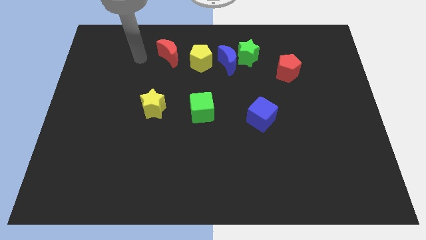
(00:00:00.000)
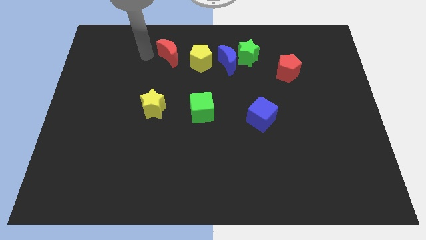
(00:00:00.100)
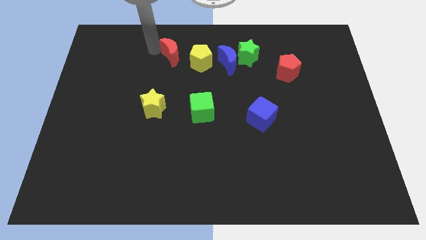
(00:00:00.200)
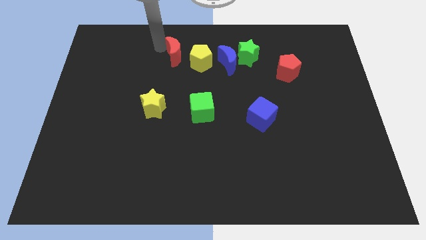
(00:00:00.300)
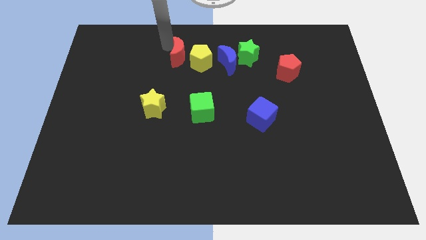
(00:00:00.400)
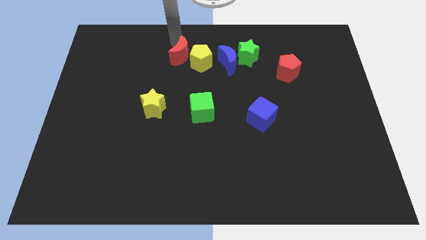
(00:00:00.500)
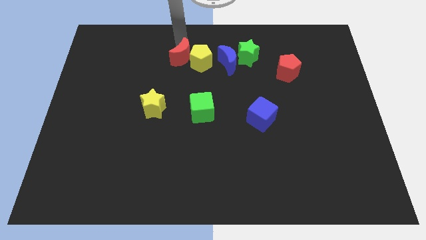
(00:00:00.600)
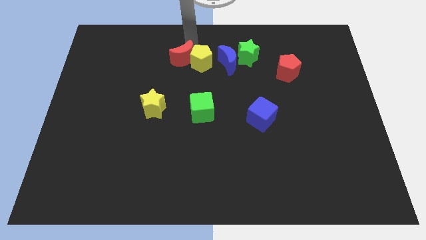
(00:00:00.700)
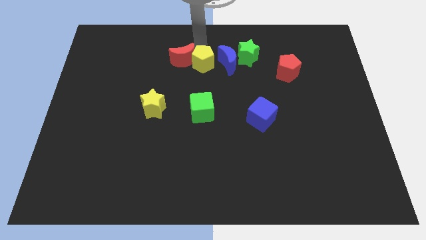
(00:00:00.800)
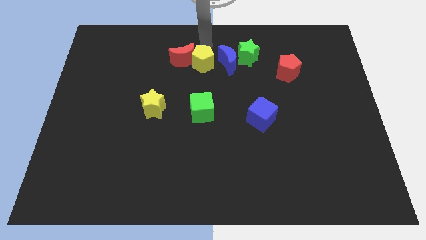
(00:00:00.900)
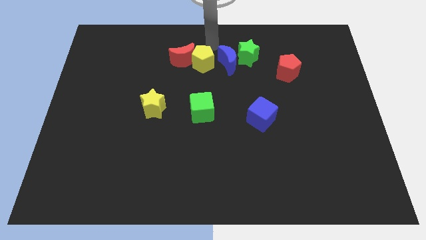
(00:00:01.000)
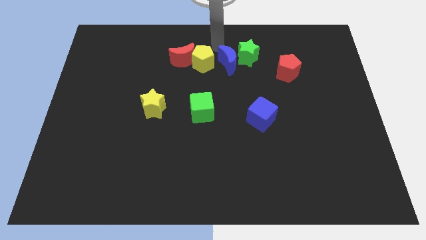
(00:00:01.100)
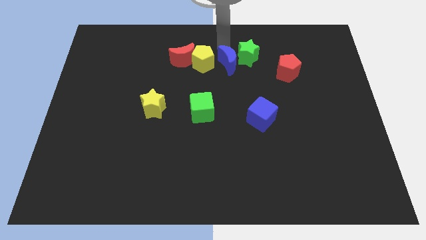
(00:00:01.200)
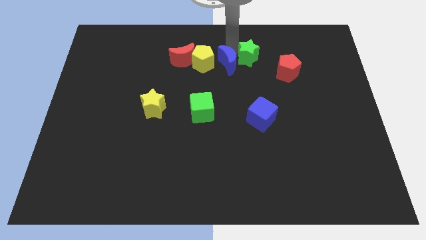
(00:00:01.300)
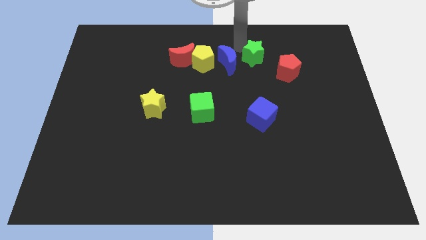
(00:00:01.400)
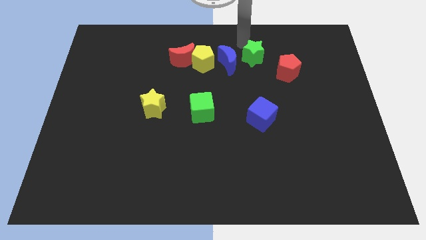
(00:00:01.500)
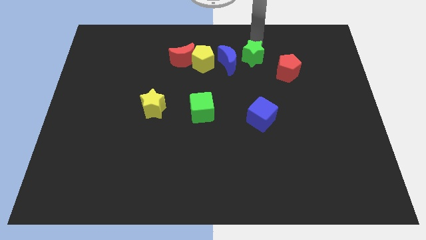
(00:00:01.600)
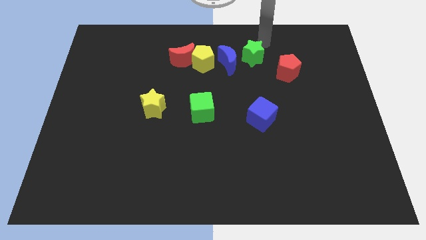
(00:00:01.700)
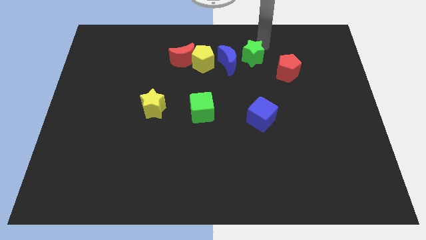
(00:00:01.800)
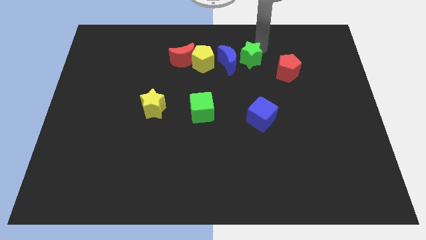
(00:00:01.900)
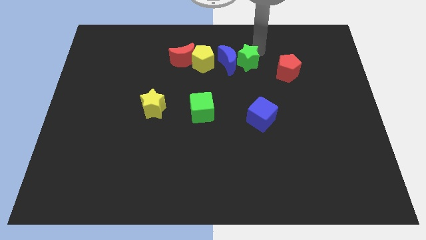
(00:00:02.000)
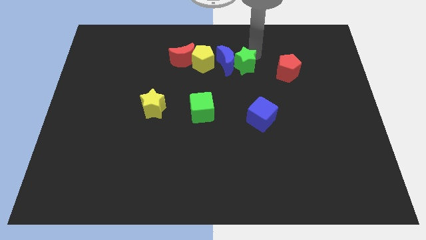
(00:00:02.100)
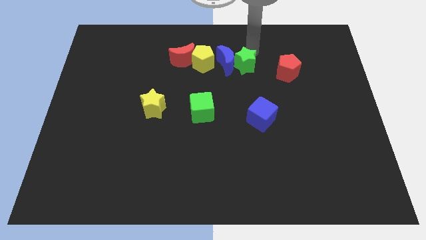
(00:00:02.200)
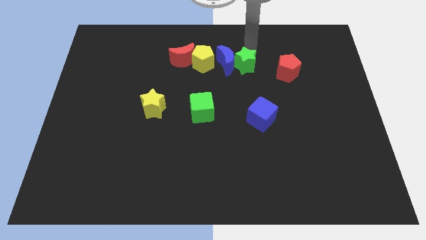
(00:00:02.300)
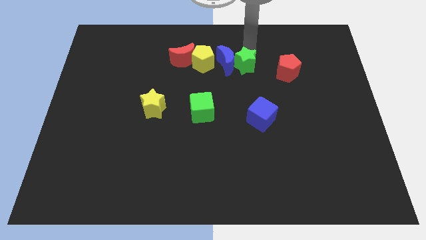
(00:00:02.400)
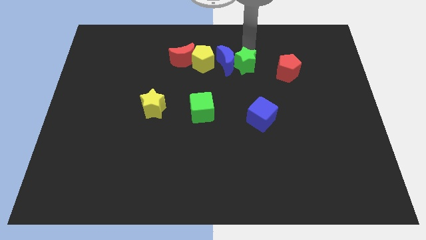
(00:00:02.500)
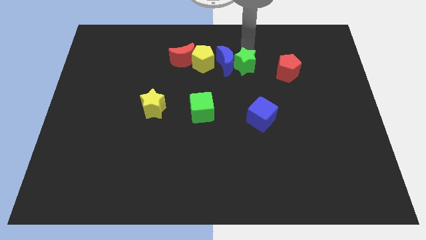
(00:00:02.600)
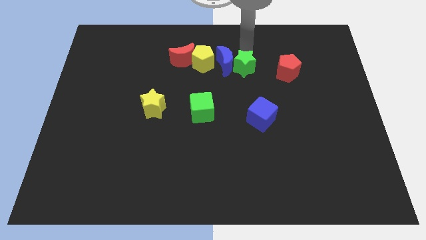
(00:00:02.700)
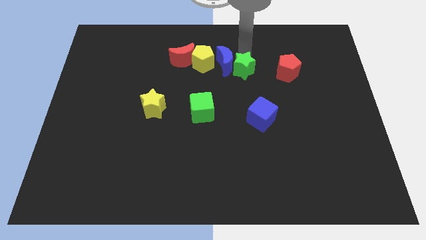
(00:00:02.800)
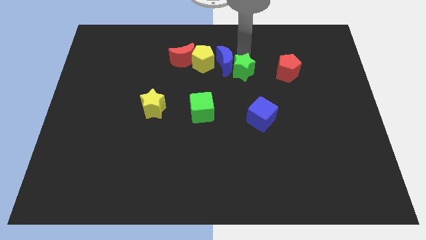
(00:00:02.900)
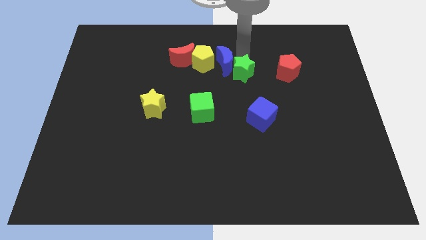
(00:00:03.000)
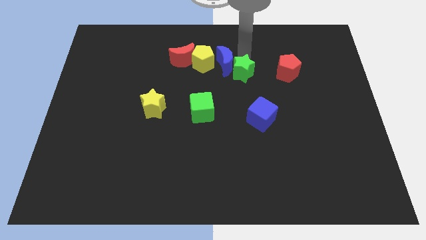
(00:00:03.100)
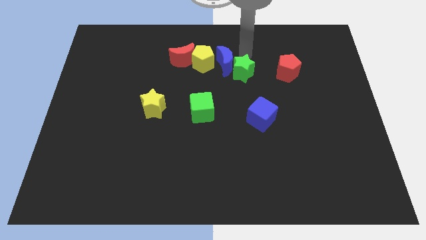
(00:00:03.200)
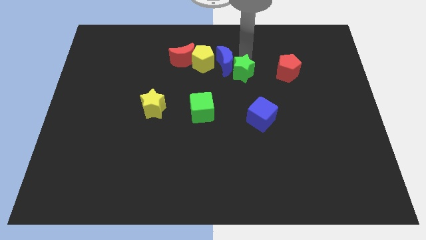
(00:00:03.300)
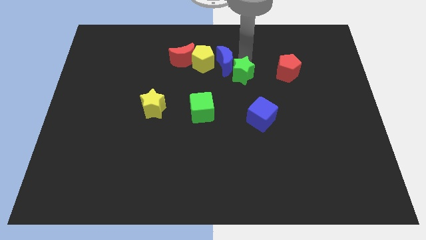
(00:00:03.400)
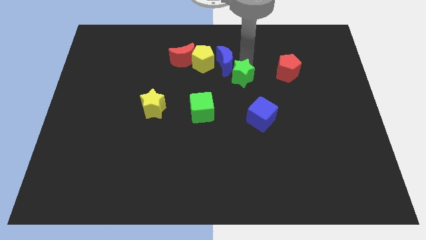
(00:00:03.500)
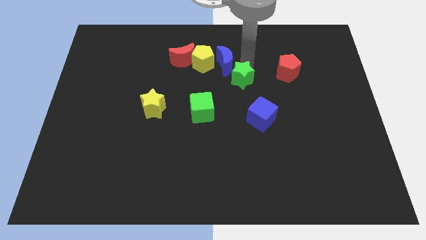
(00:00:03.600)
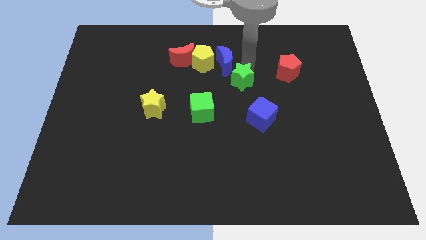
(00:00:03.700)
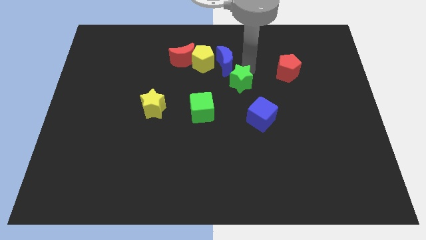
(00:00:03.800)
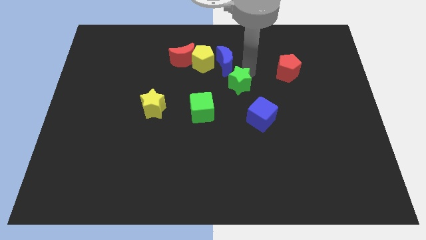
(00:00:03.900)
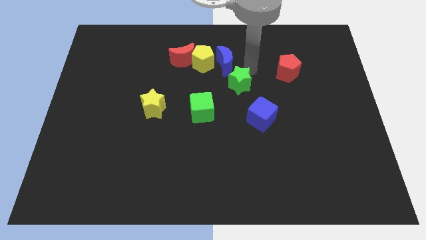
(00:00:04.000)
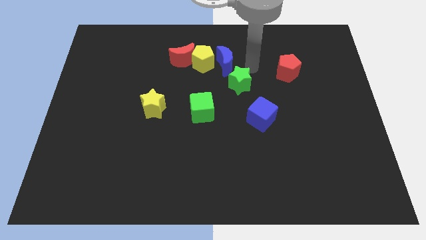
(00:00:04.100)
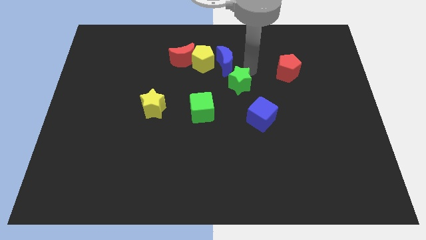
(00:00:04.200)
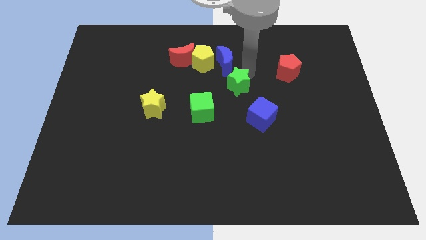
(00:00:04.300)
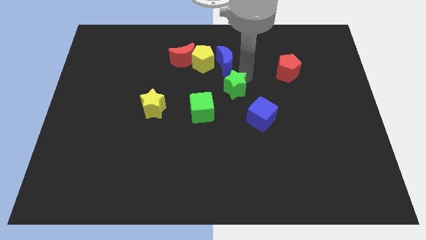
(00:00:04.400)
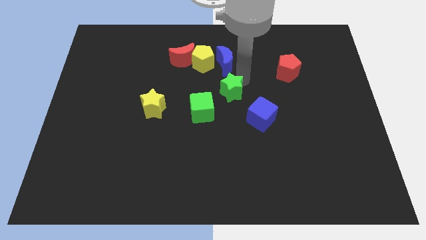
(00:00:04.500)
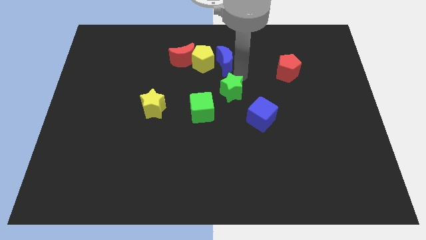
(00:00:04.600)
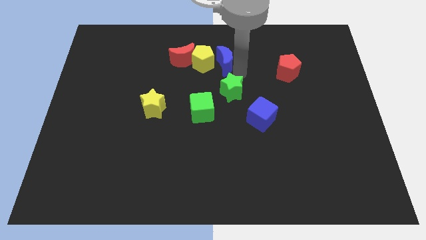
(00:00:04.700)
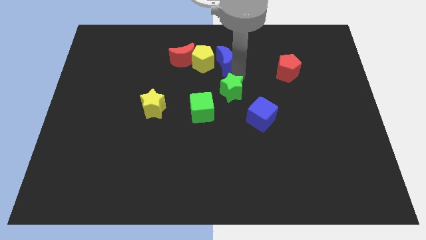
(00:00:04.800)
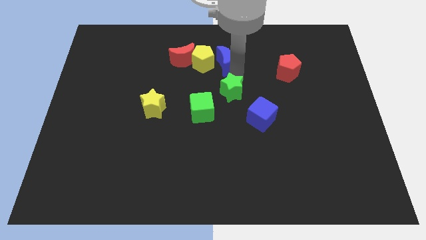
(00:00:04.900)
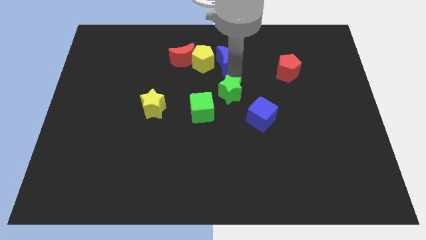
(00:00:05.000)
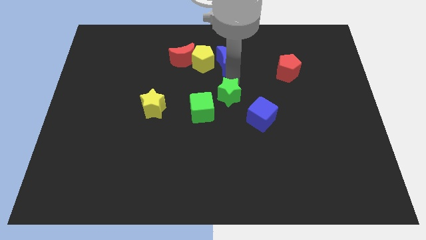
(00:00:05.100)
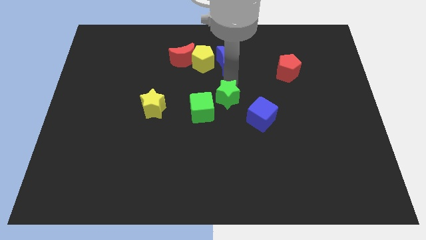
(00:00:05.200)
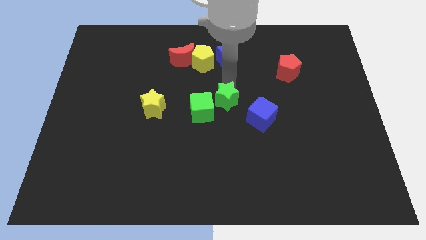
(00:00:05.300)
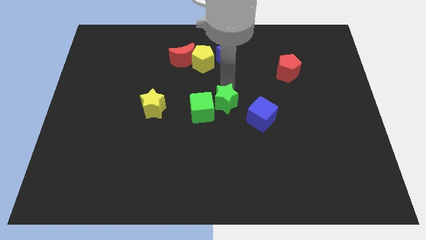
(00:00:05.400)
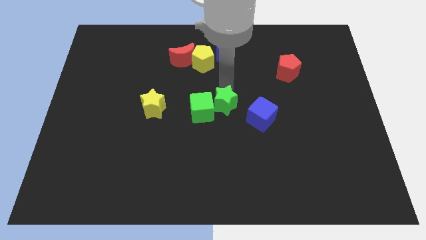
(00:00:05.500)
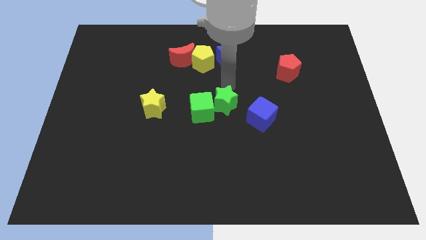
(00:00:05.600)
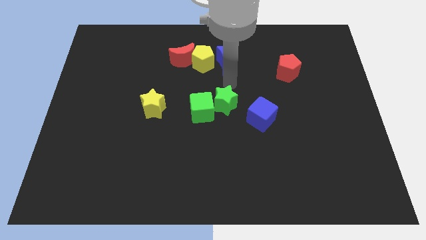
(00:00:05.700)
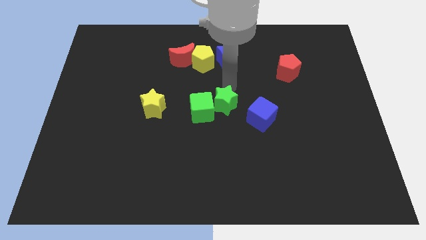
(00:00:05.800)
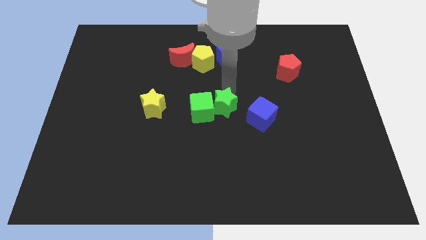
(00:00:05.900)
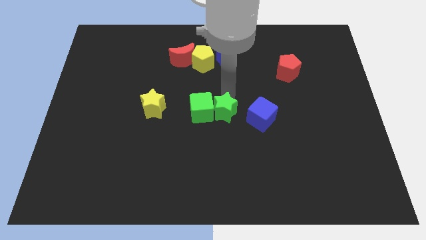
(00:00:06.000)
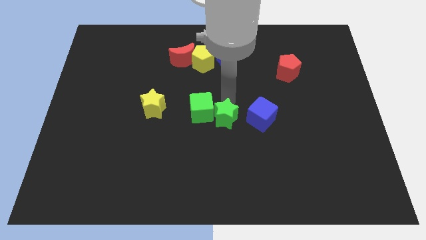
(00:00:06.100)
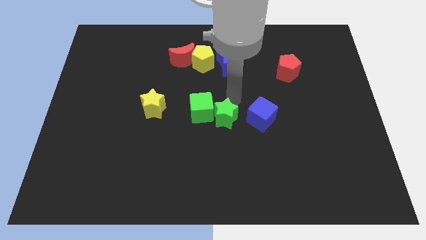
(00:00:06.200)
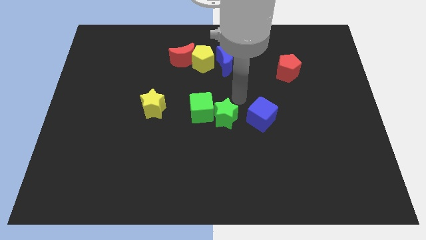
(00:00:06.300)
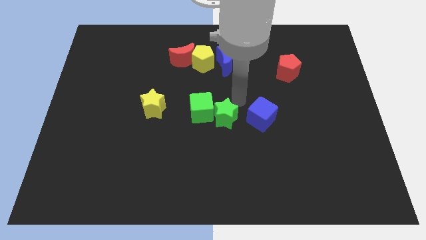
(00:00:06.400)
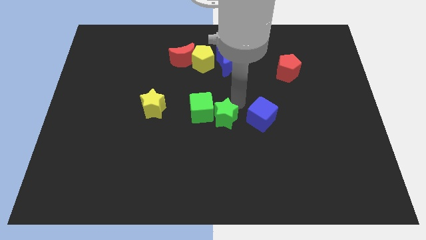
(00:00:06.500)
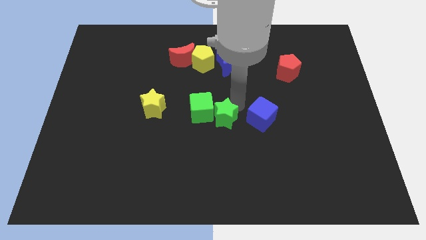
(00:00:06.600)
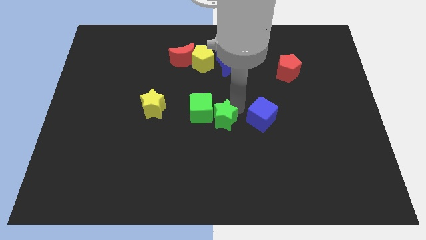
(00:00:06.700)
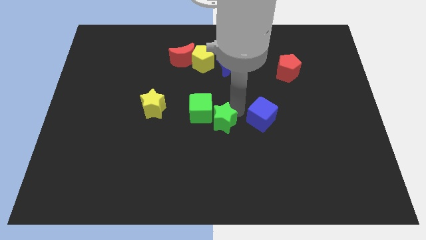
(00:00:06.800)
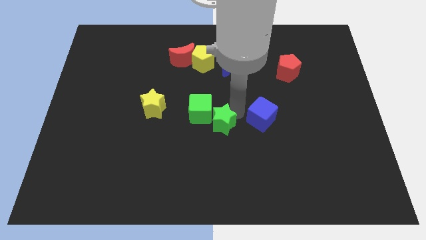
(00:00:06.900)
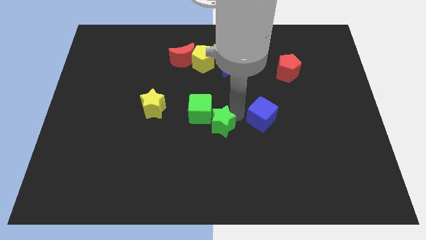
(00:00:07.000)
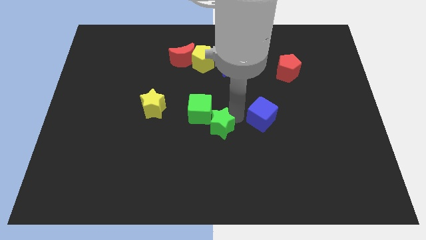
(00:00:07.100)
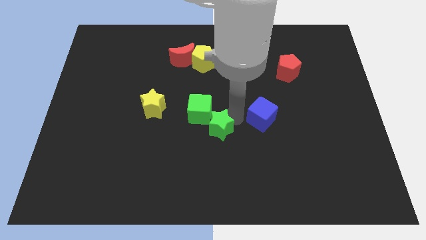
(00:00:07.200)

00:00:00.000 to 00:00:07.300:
slide the green star to the bottom side of the green cube

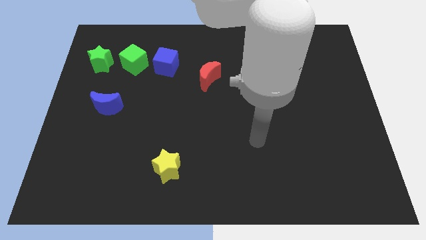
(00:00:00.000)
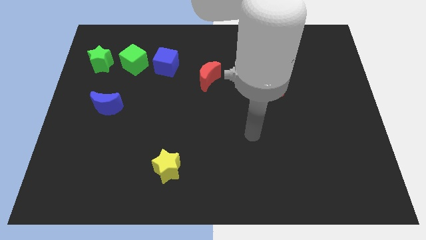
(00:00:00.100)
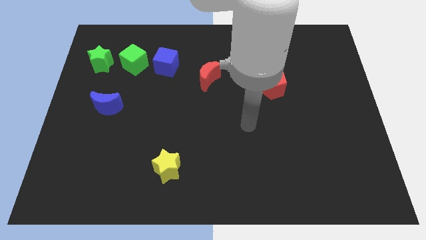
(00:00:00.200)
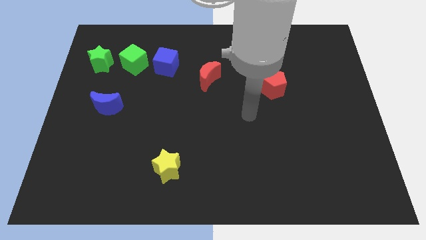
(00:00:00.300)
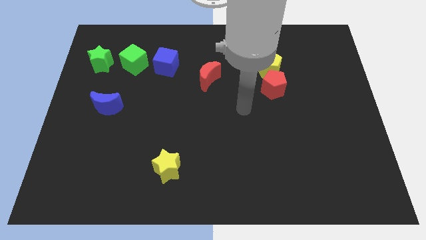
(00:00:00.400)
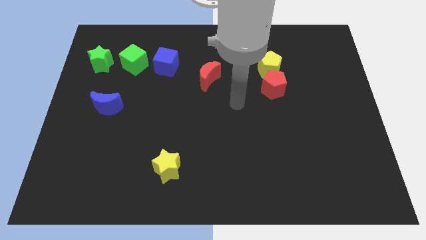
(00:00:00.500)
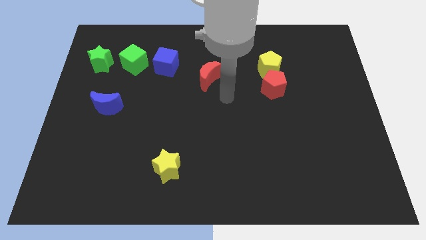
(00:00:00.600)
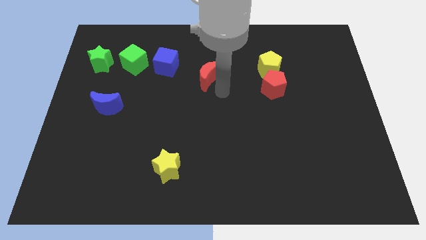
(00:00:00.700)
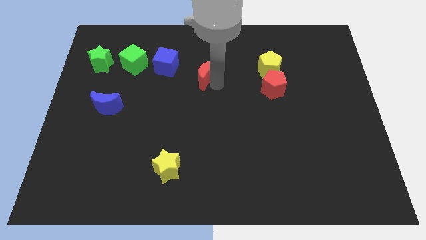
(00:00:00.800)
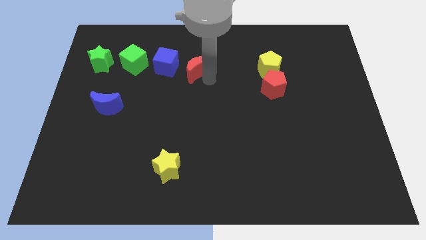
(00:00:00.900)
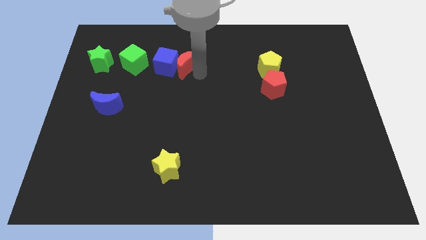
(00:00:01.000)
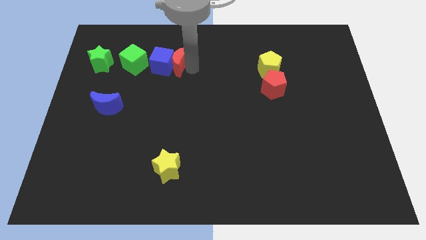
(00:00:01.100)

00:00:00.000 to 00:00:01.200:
slide the blue cube to the right of the green star
